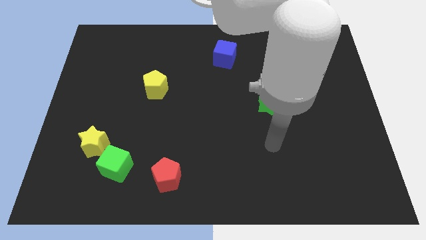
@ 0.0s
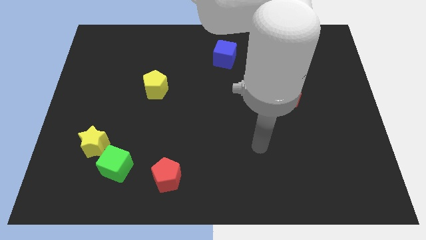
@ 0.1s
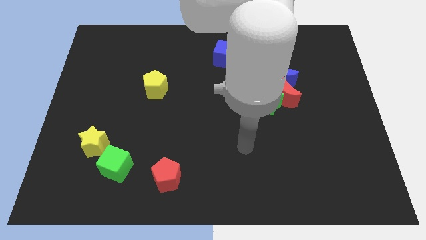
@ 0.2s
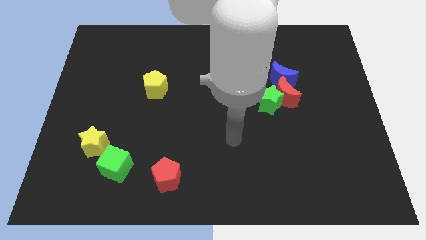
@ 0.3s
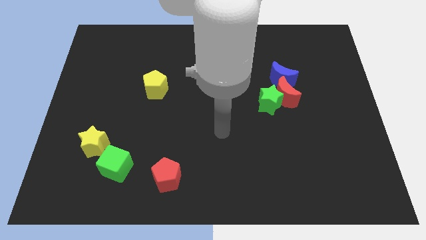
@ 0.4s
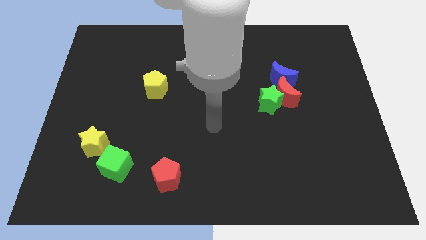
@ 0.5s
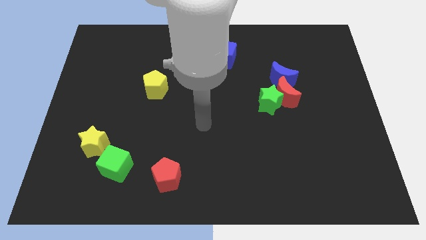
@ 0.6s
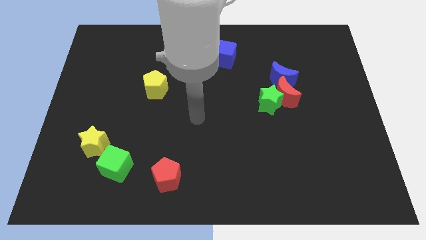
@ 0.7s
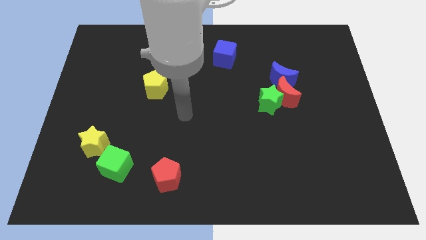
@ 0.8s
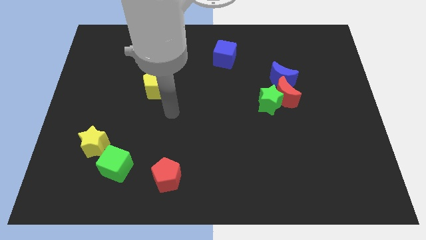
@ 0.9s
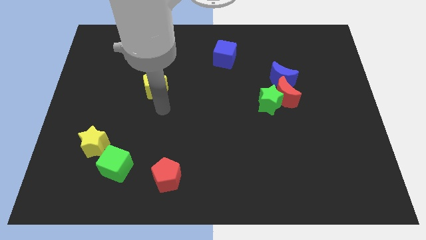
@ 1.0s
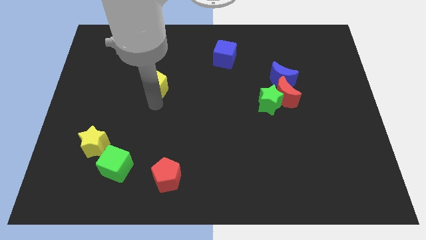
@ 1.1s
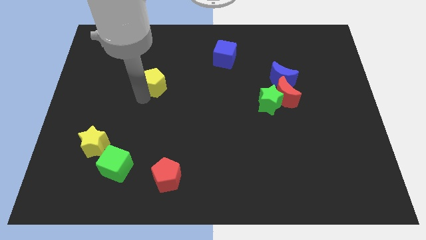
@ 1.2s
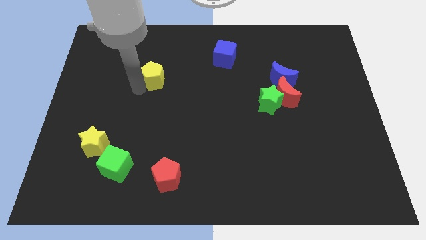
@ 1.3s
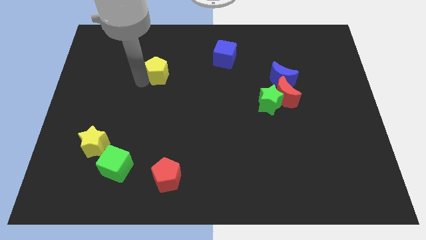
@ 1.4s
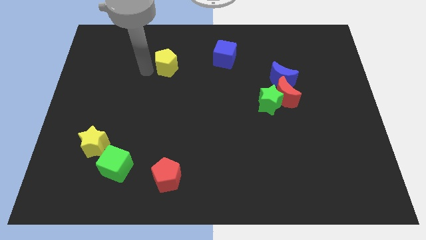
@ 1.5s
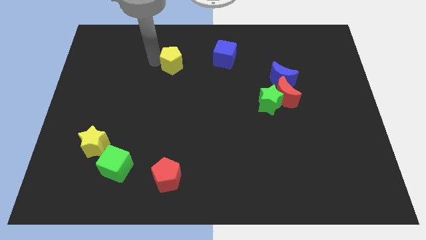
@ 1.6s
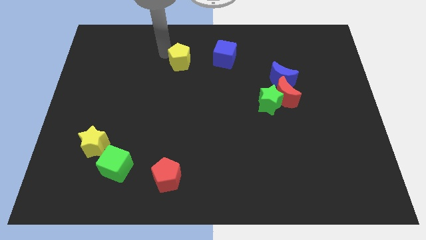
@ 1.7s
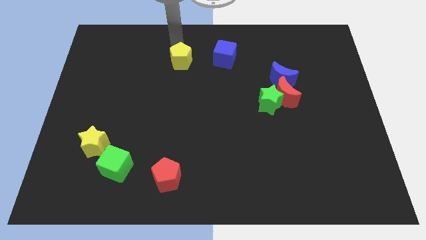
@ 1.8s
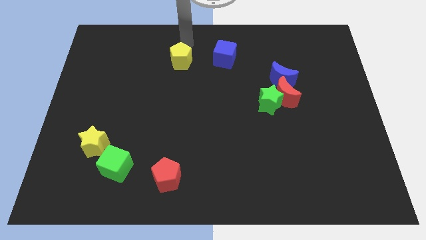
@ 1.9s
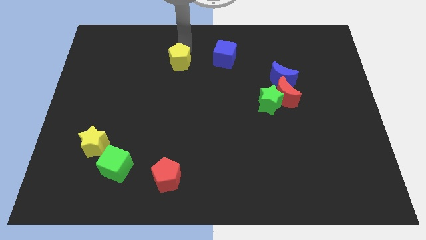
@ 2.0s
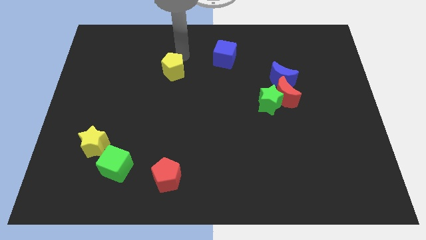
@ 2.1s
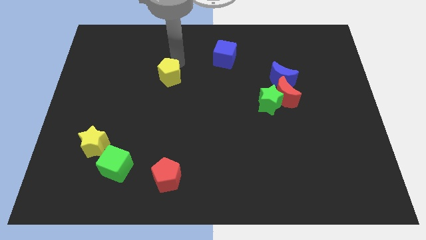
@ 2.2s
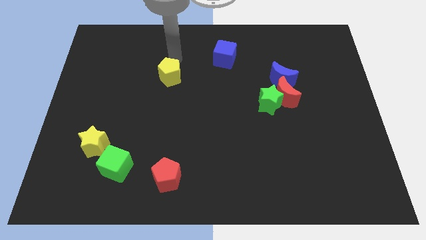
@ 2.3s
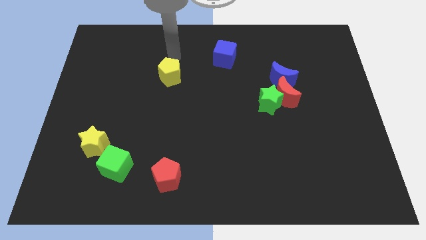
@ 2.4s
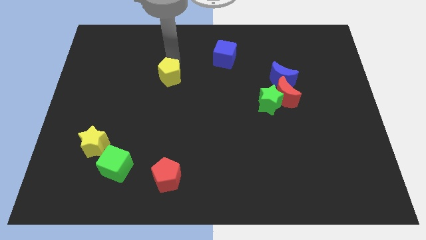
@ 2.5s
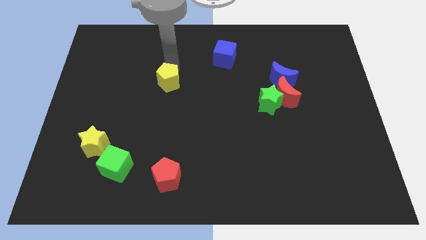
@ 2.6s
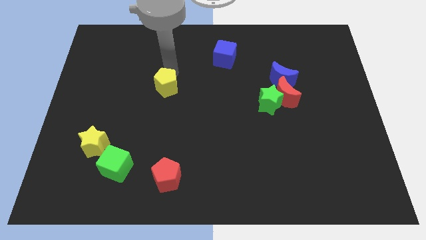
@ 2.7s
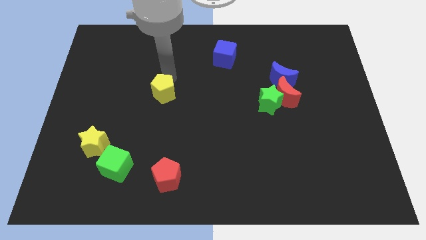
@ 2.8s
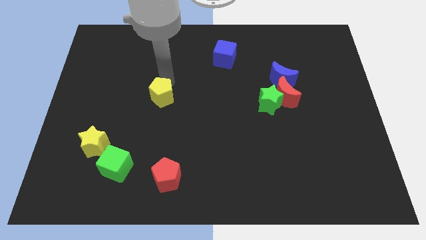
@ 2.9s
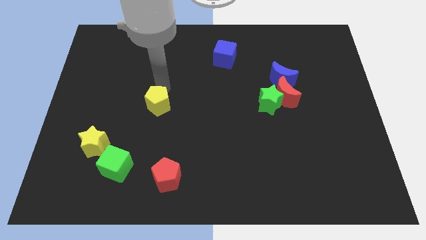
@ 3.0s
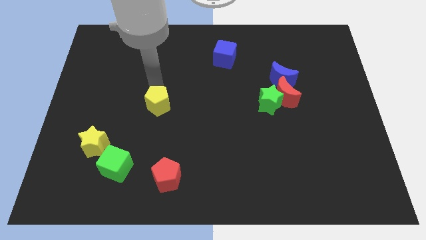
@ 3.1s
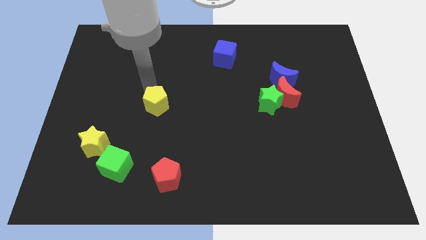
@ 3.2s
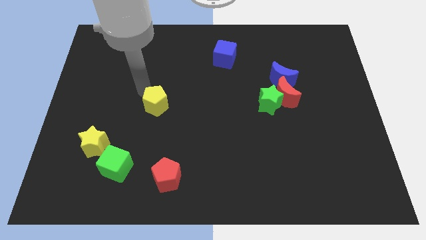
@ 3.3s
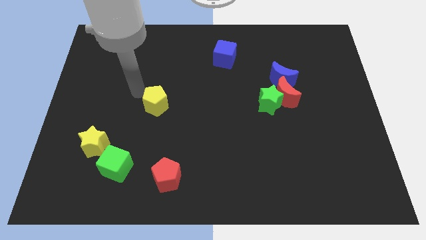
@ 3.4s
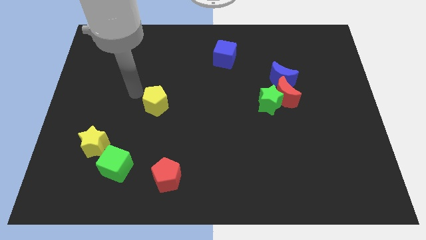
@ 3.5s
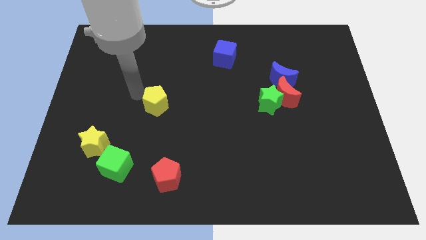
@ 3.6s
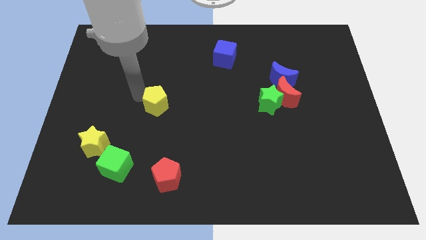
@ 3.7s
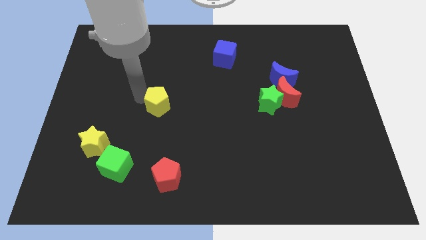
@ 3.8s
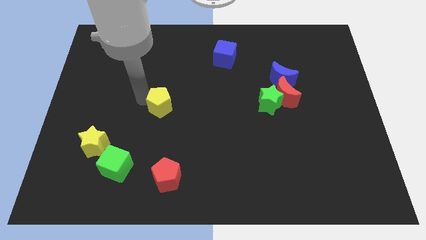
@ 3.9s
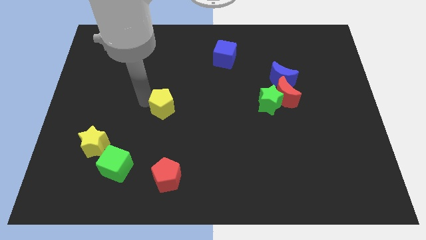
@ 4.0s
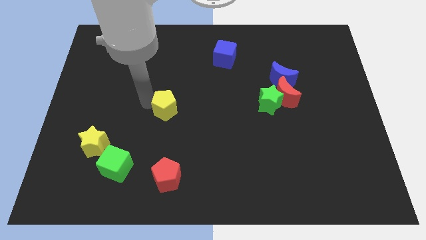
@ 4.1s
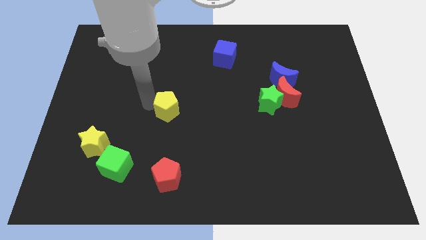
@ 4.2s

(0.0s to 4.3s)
slide the yellow pentagon somewhat downwards and to the right diagonally

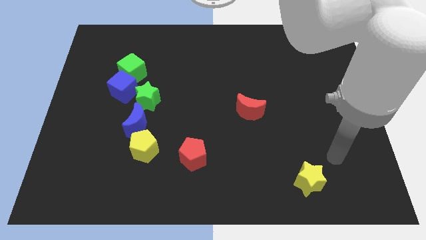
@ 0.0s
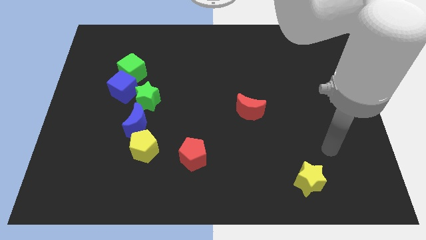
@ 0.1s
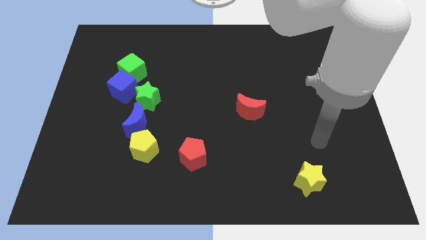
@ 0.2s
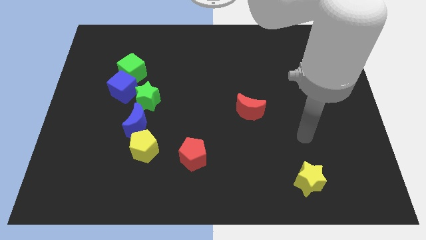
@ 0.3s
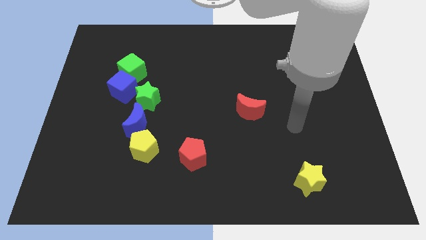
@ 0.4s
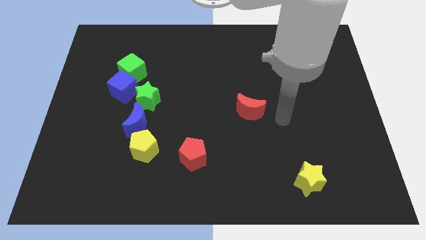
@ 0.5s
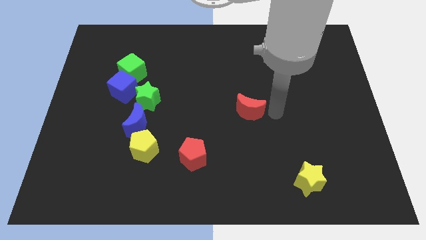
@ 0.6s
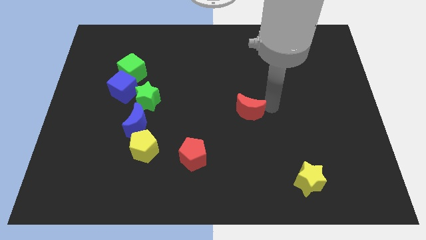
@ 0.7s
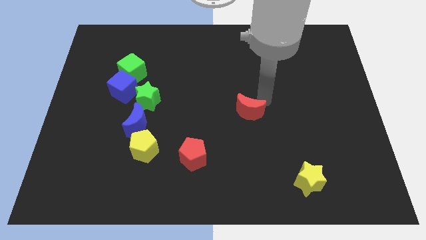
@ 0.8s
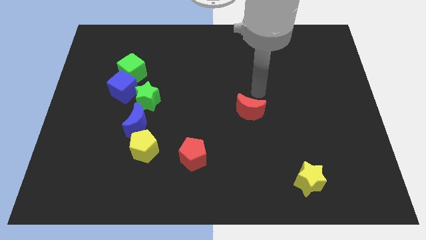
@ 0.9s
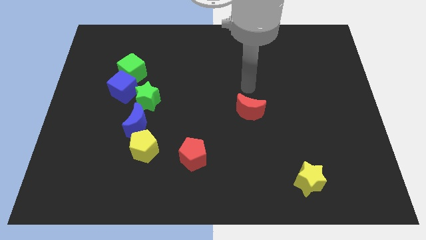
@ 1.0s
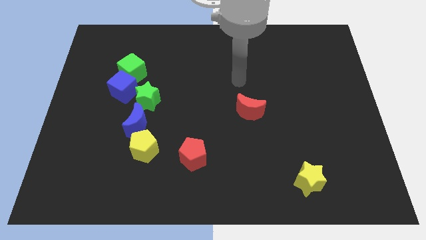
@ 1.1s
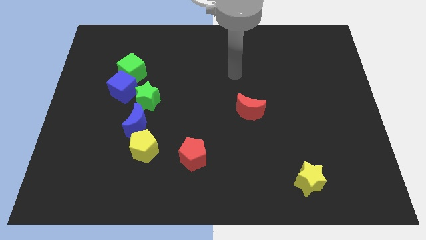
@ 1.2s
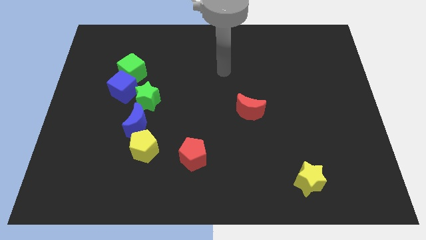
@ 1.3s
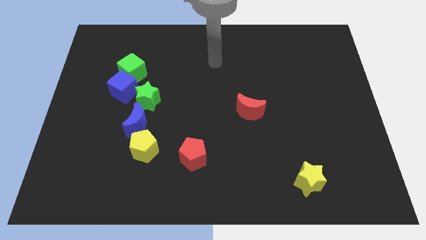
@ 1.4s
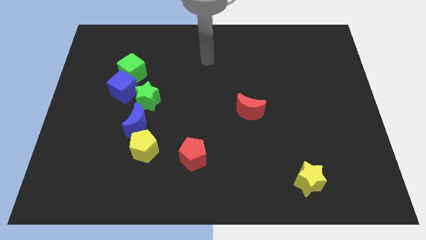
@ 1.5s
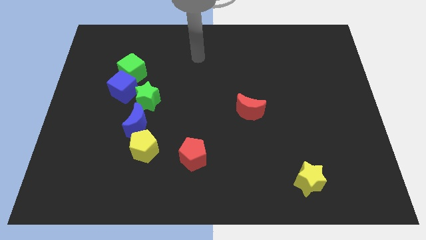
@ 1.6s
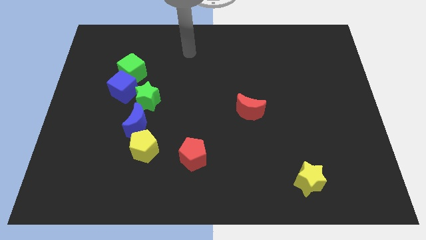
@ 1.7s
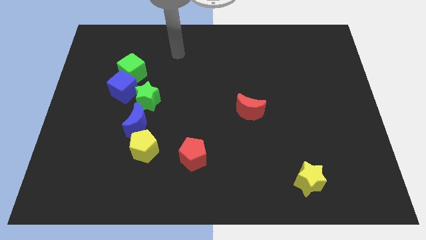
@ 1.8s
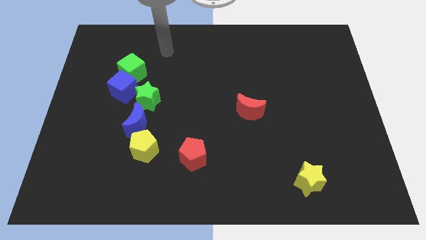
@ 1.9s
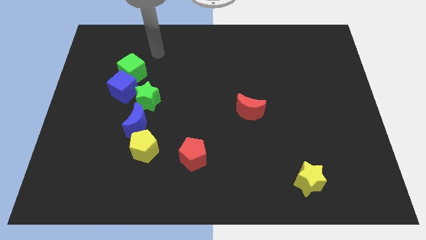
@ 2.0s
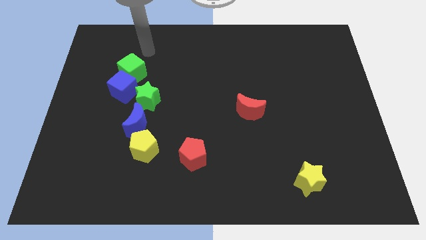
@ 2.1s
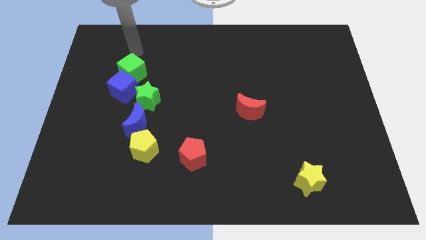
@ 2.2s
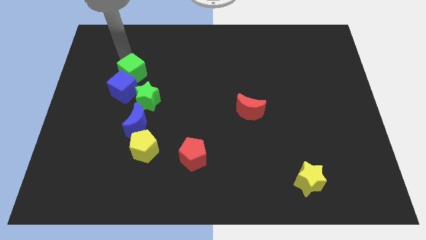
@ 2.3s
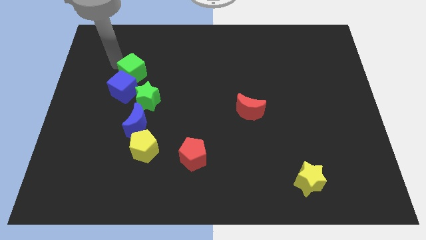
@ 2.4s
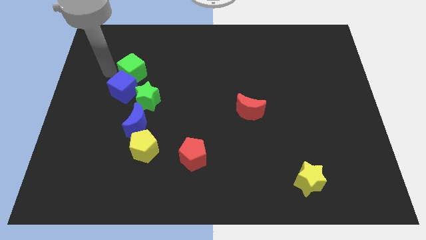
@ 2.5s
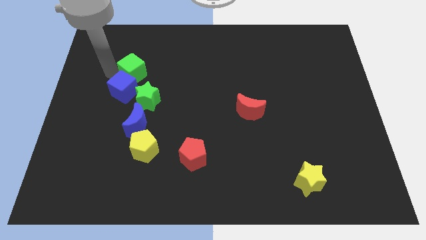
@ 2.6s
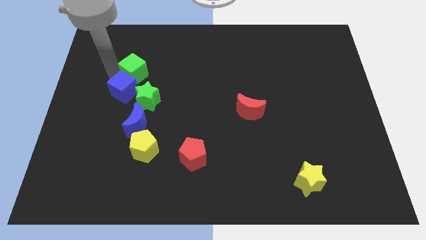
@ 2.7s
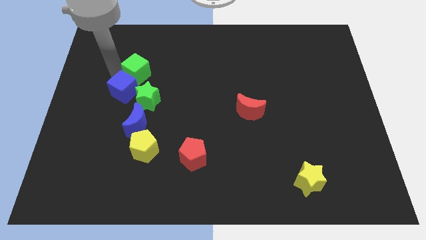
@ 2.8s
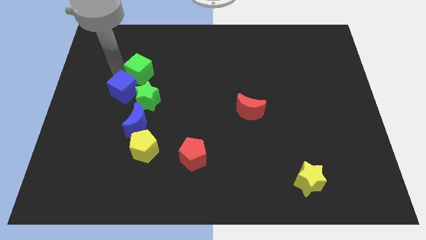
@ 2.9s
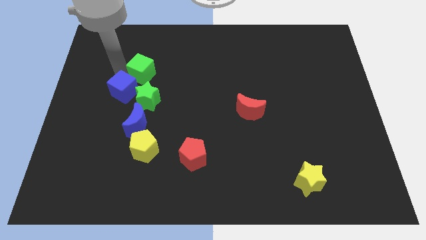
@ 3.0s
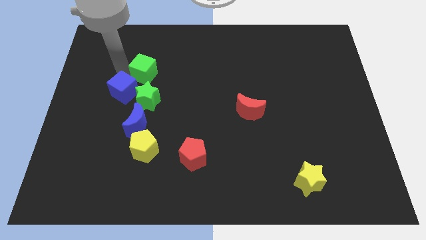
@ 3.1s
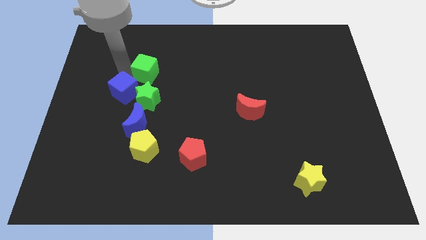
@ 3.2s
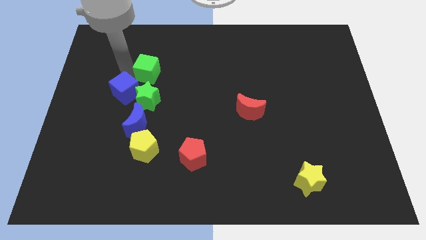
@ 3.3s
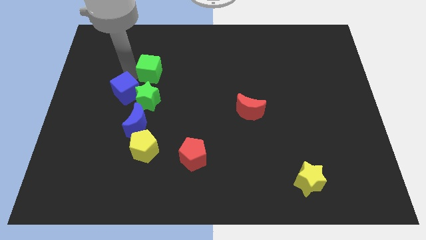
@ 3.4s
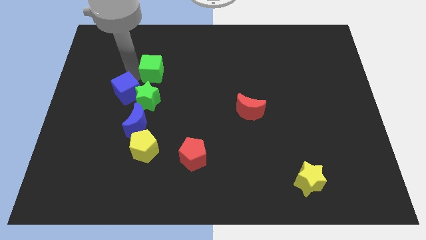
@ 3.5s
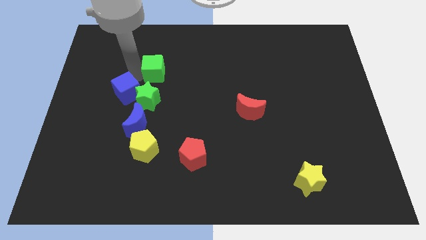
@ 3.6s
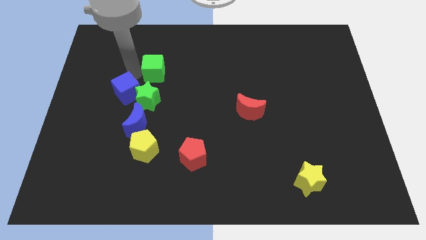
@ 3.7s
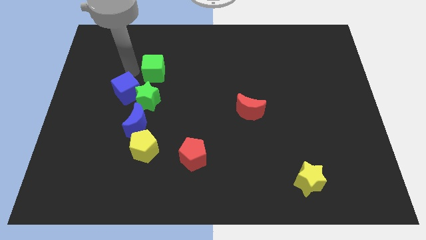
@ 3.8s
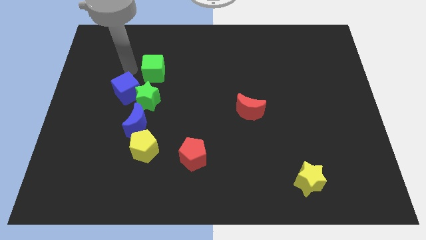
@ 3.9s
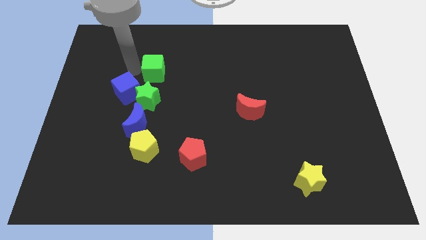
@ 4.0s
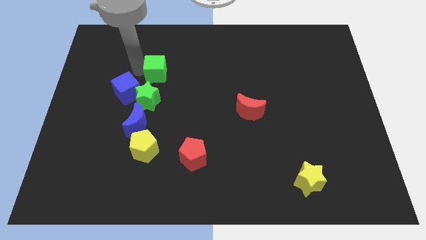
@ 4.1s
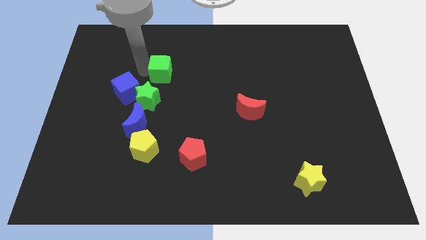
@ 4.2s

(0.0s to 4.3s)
slightly move the green cube right
